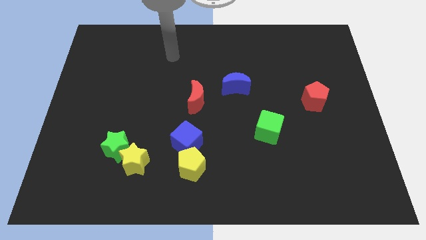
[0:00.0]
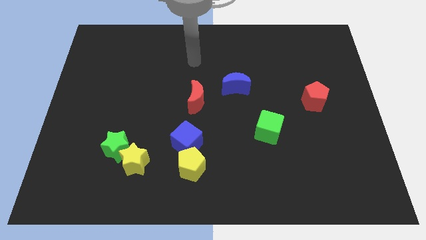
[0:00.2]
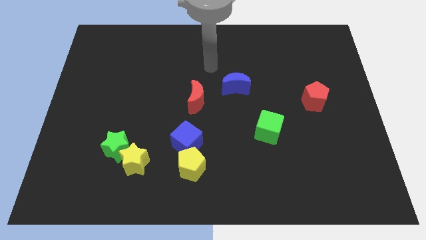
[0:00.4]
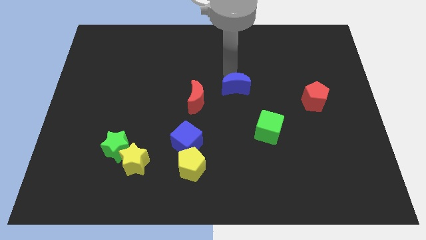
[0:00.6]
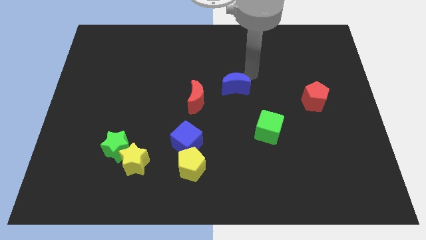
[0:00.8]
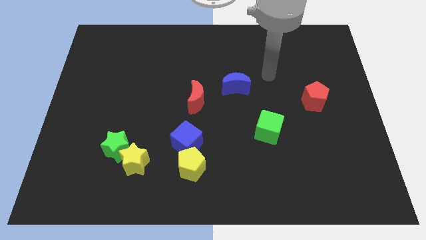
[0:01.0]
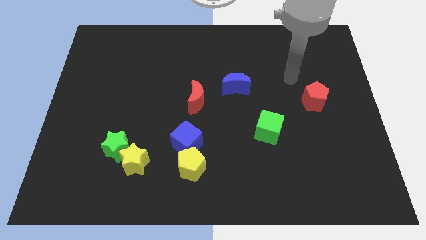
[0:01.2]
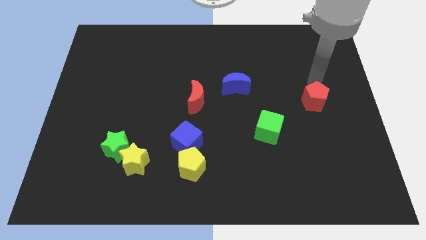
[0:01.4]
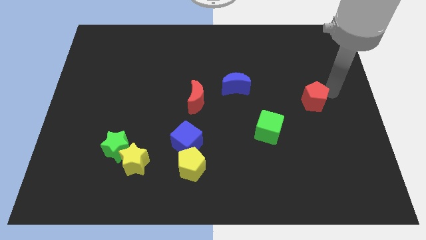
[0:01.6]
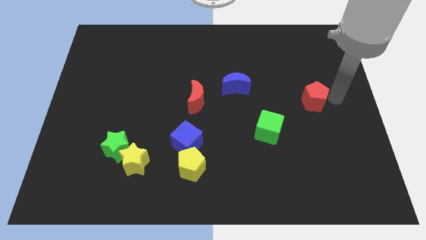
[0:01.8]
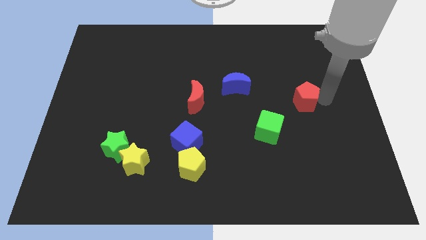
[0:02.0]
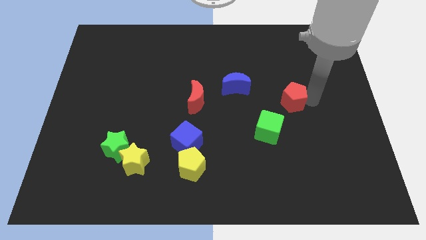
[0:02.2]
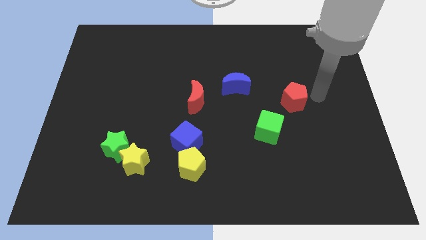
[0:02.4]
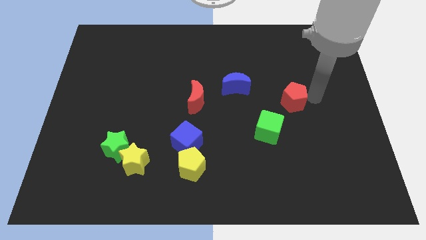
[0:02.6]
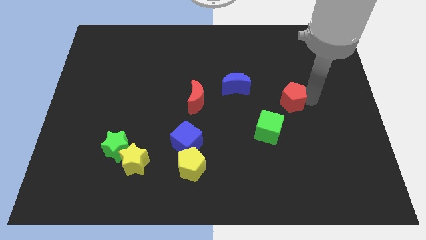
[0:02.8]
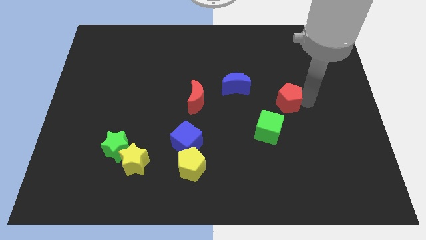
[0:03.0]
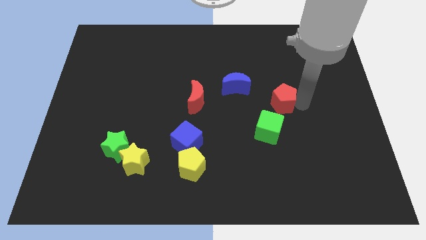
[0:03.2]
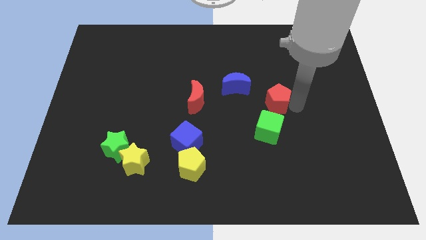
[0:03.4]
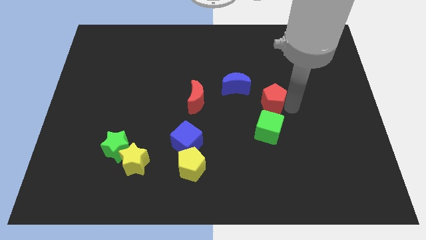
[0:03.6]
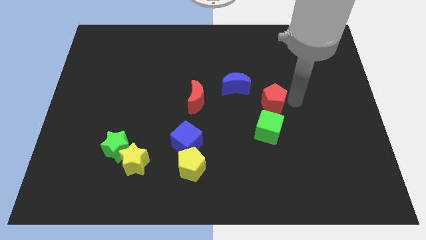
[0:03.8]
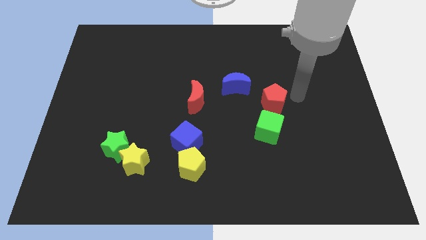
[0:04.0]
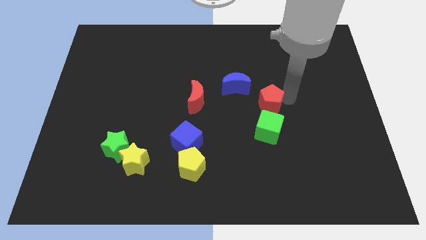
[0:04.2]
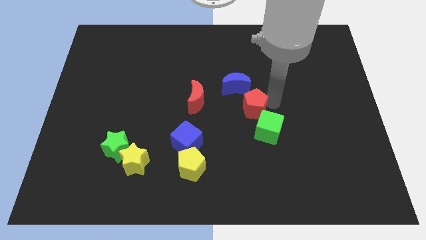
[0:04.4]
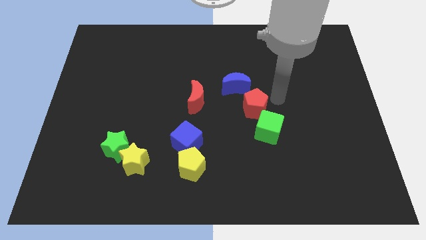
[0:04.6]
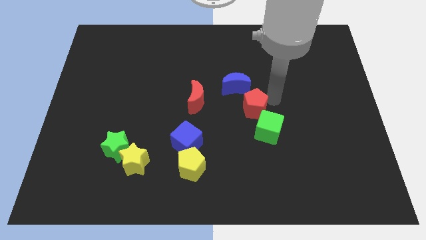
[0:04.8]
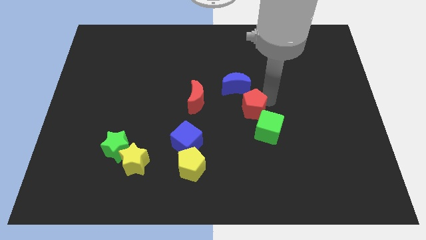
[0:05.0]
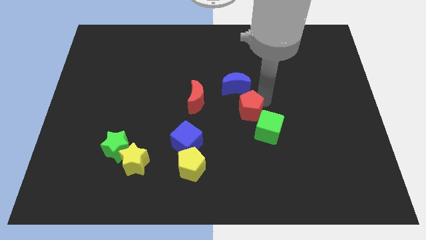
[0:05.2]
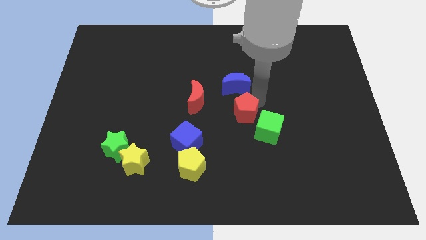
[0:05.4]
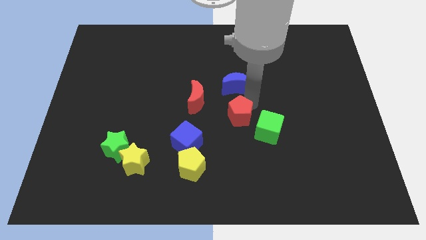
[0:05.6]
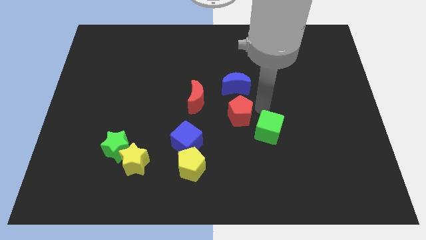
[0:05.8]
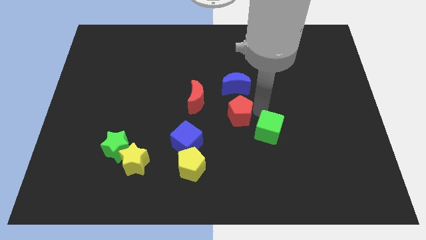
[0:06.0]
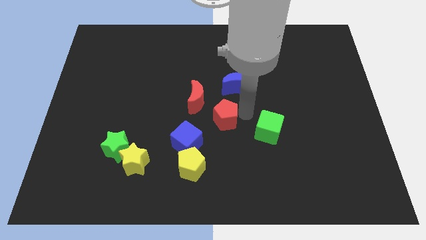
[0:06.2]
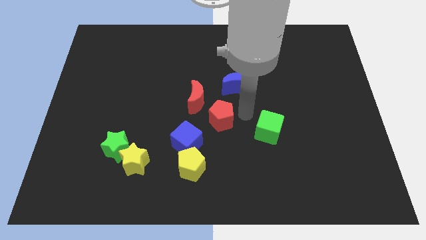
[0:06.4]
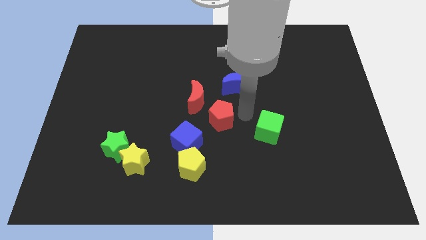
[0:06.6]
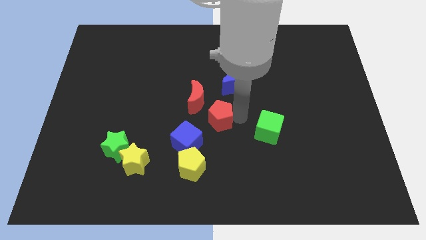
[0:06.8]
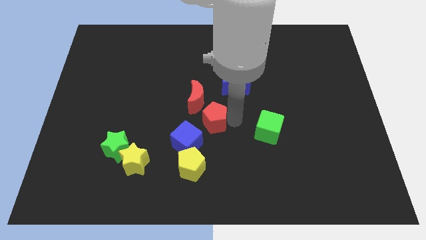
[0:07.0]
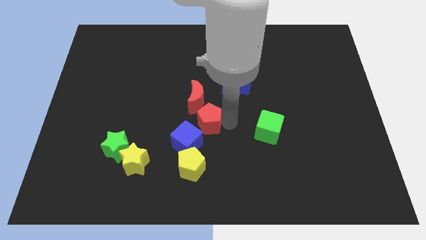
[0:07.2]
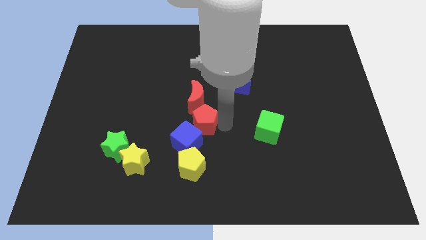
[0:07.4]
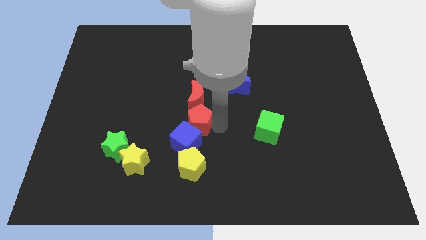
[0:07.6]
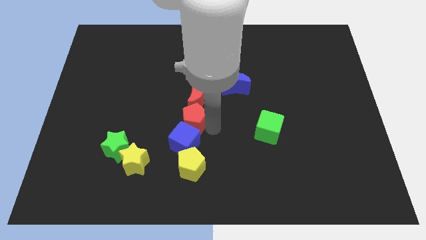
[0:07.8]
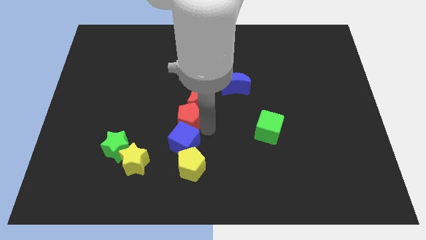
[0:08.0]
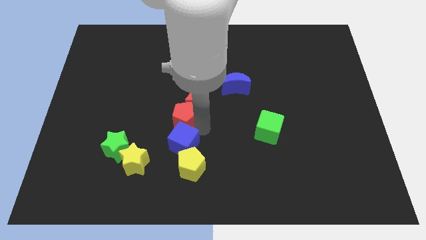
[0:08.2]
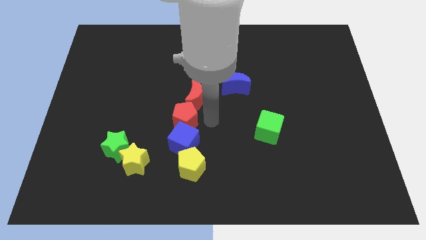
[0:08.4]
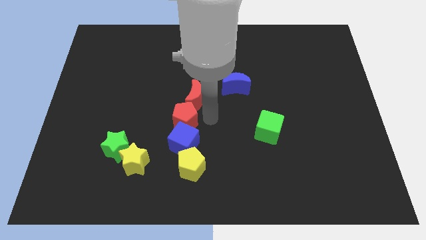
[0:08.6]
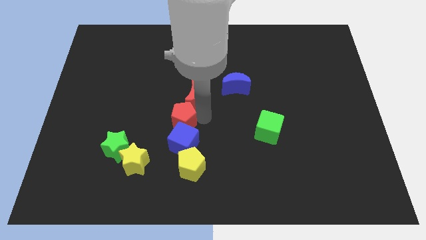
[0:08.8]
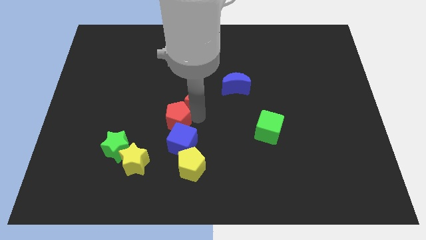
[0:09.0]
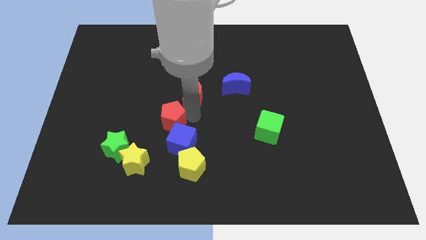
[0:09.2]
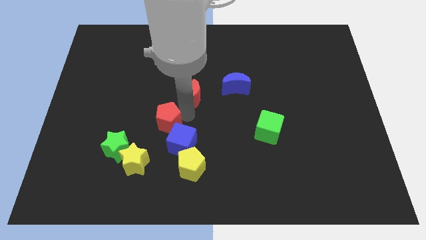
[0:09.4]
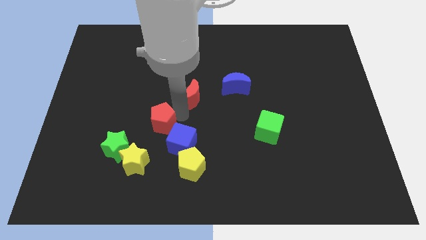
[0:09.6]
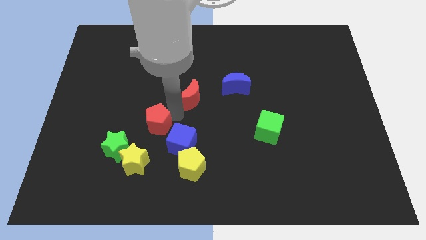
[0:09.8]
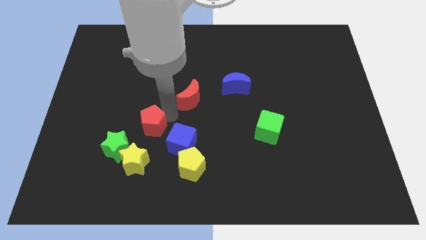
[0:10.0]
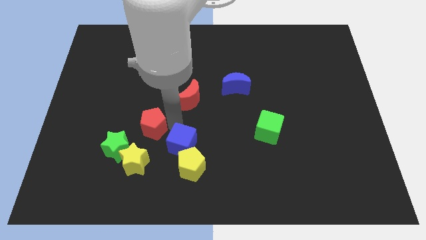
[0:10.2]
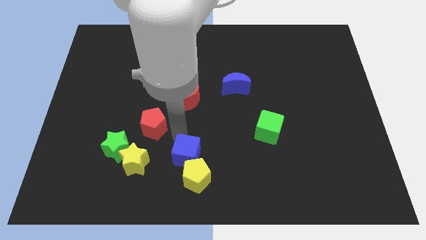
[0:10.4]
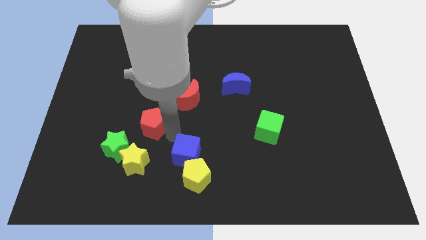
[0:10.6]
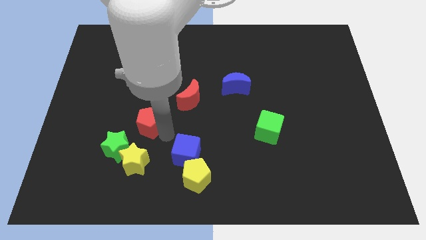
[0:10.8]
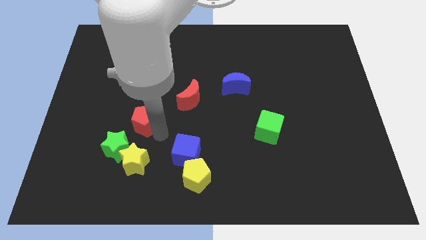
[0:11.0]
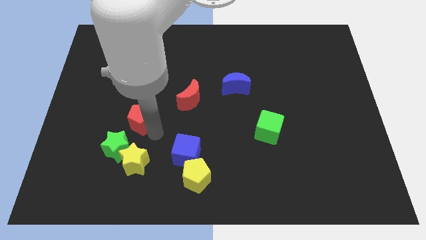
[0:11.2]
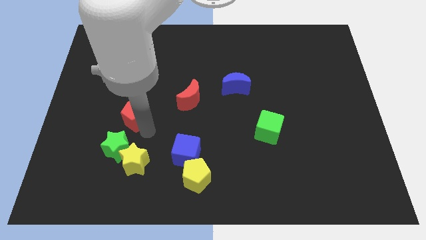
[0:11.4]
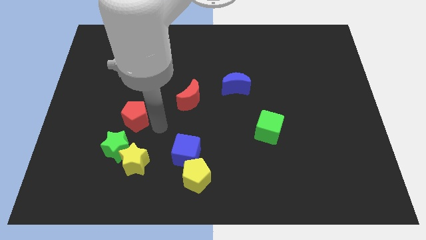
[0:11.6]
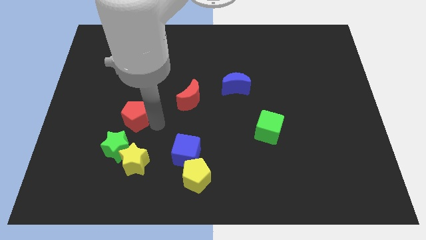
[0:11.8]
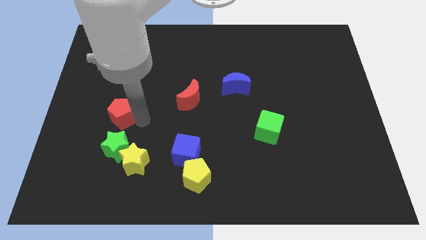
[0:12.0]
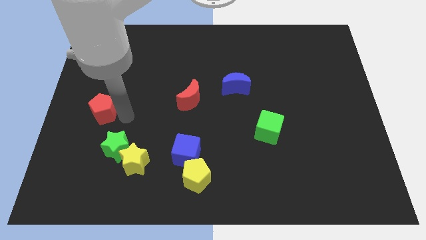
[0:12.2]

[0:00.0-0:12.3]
put the red pentagon to the left side
